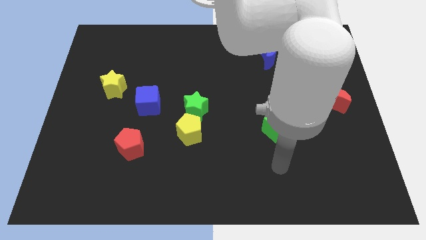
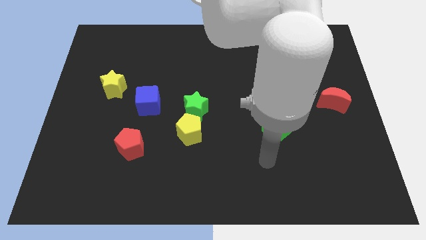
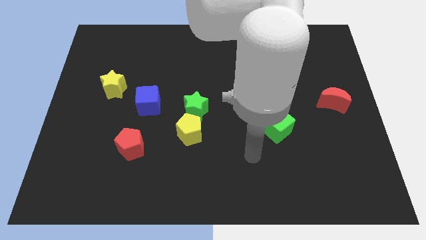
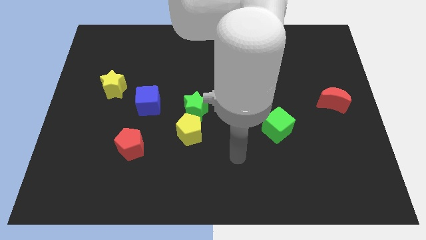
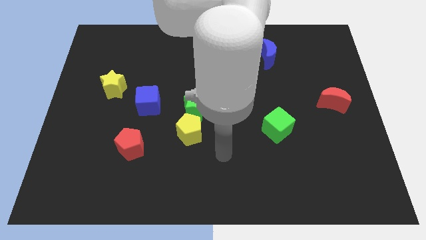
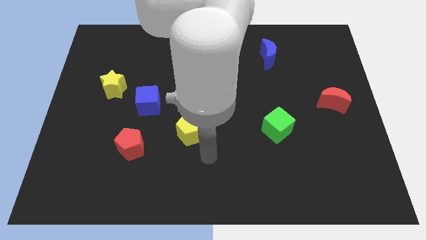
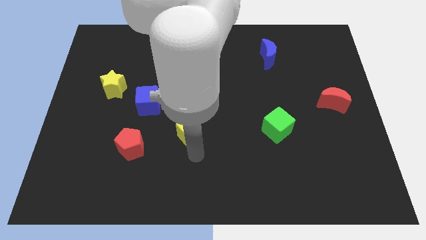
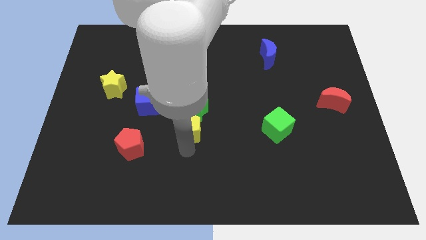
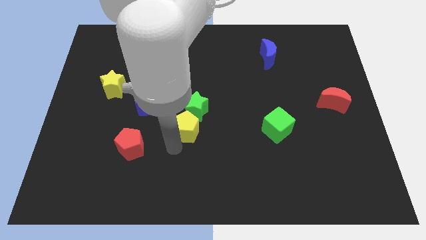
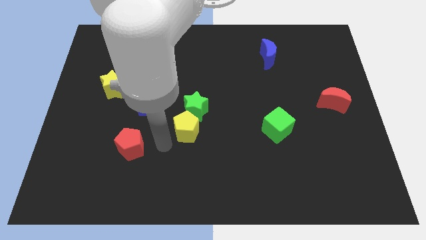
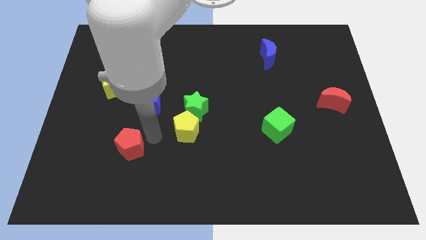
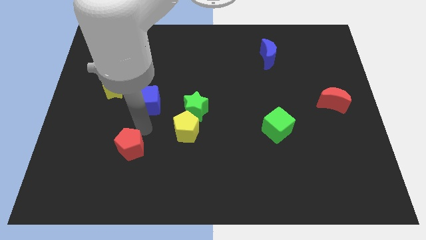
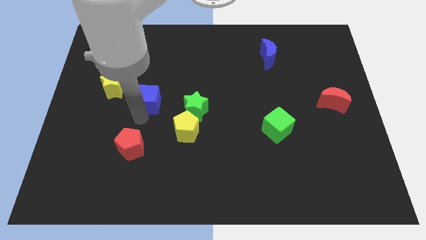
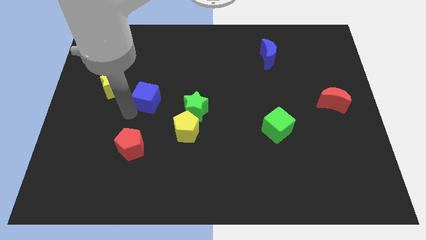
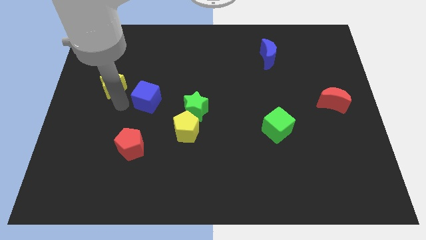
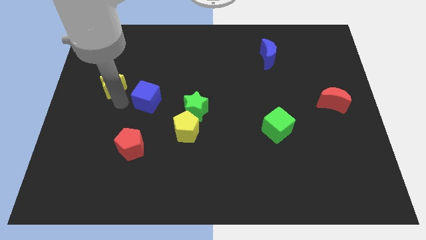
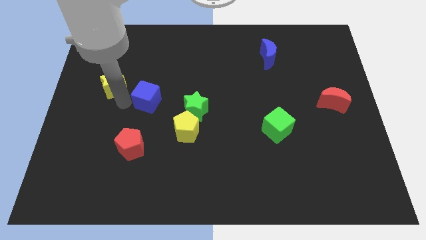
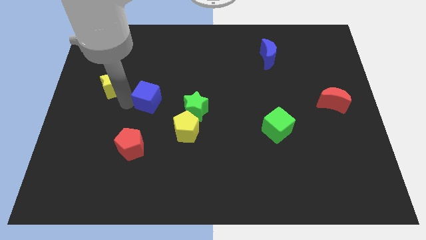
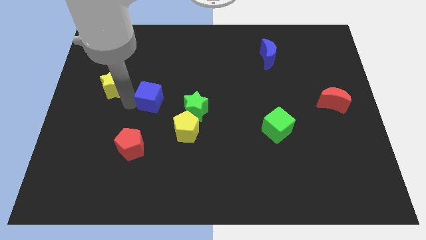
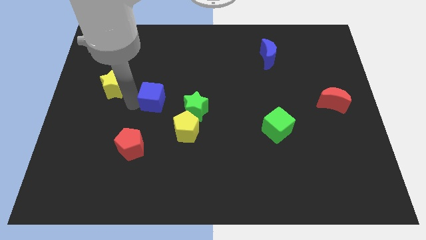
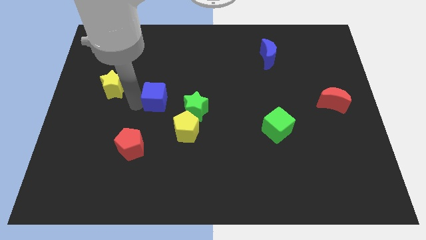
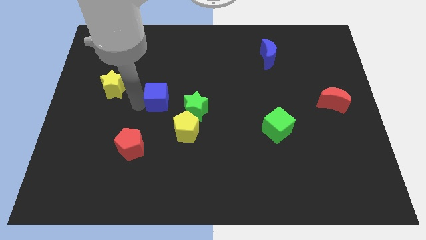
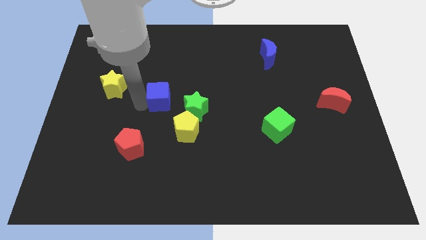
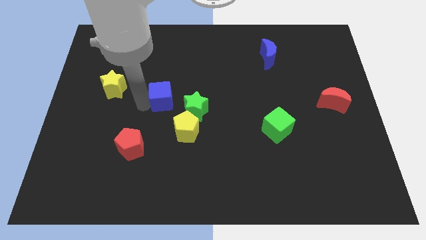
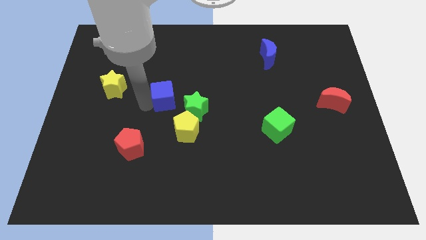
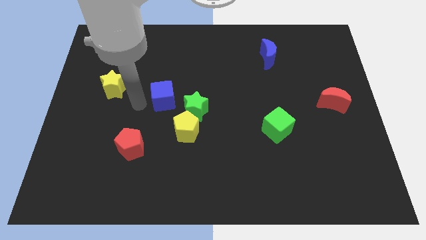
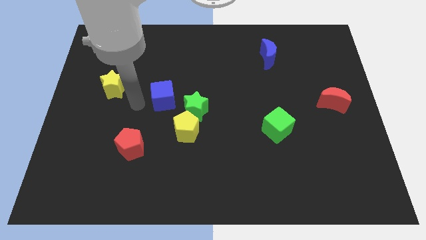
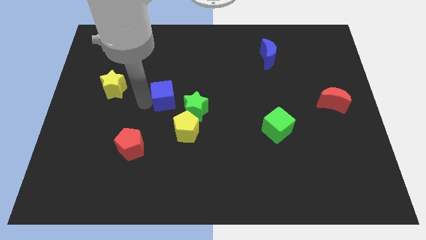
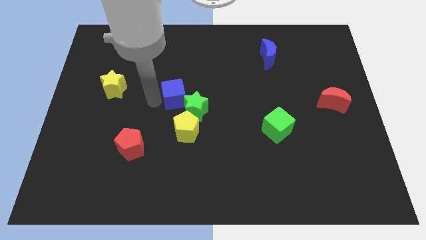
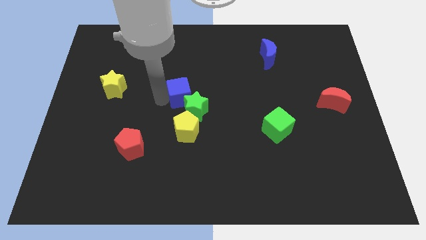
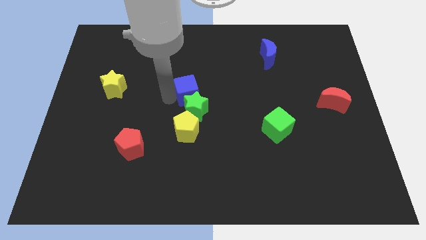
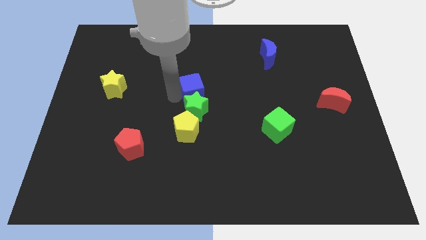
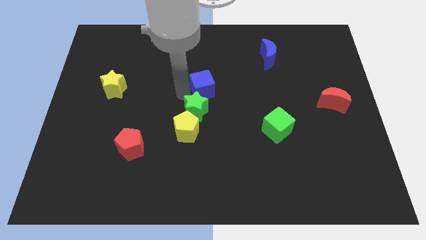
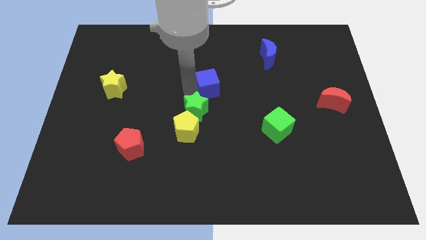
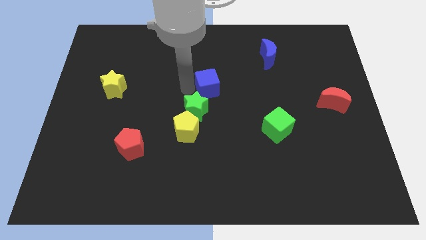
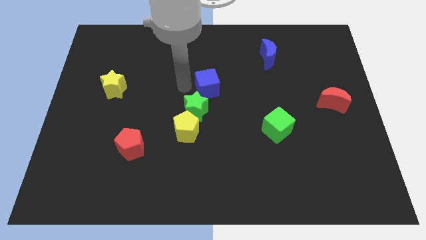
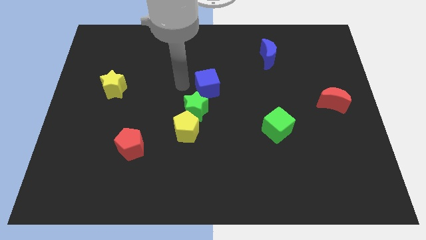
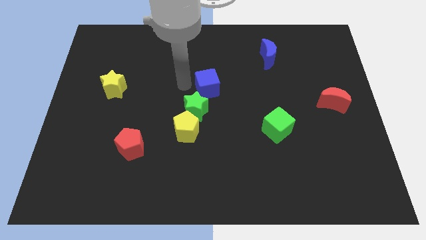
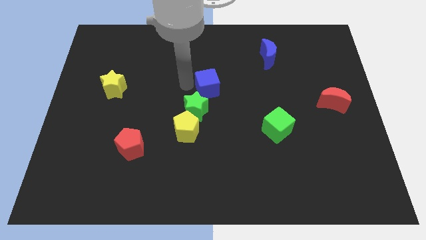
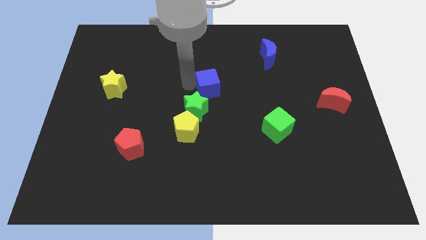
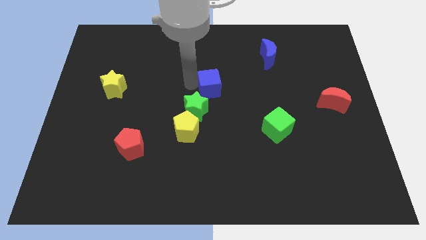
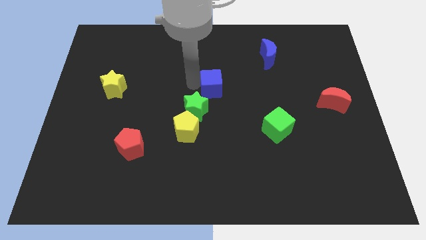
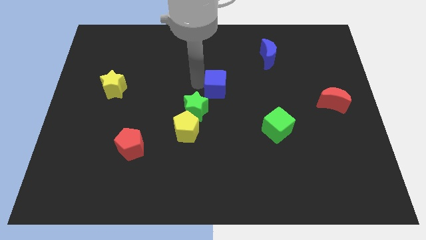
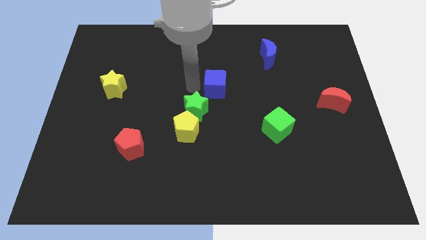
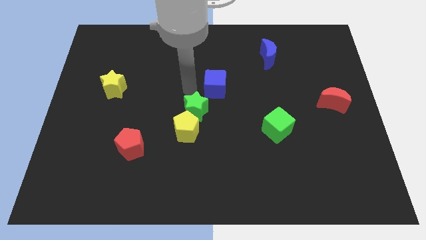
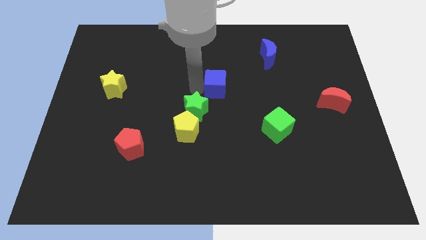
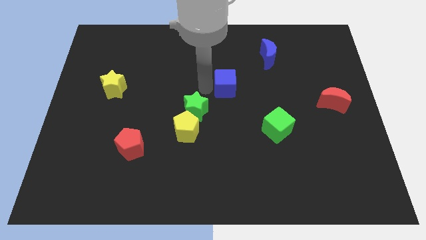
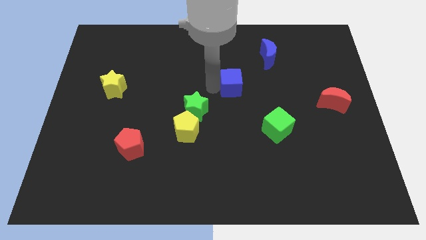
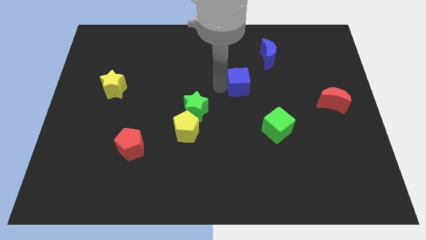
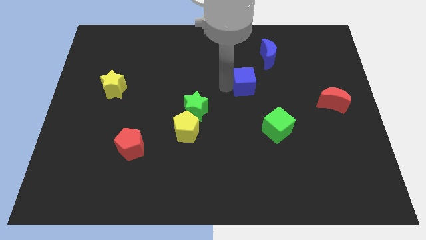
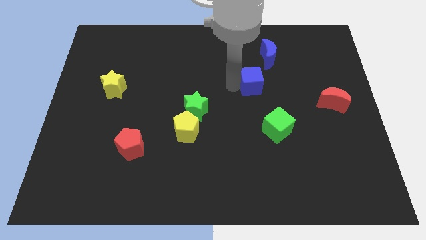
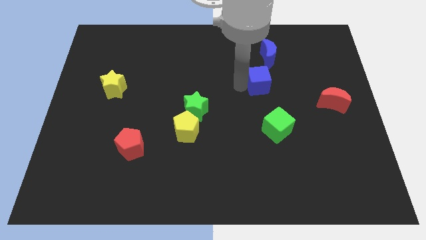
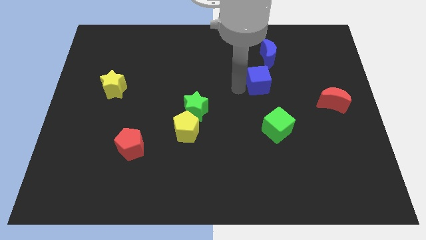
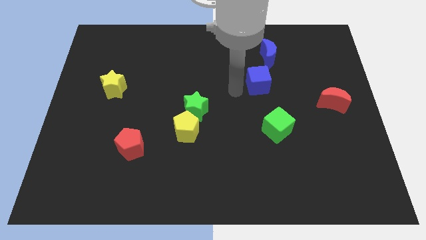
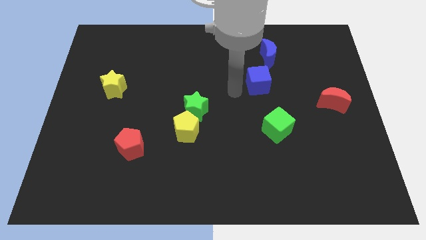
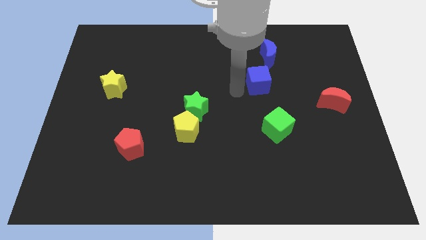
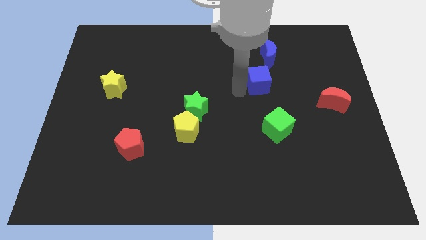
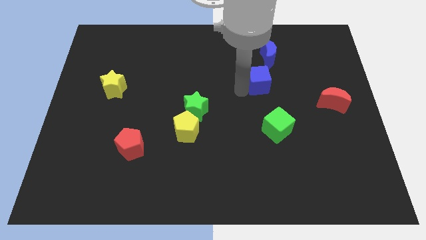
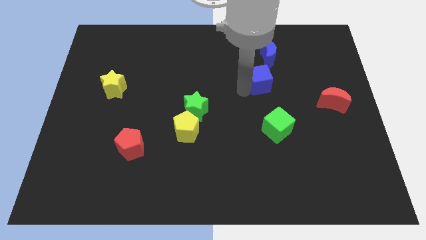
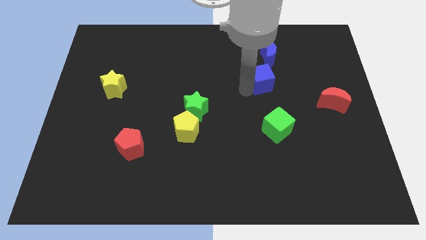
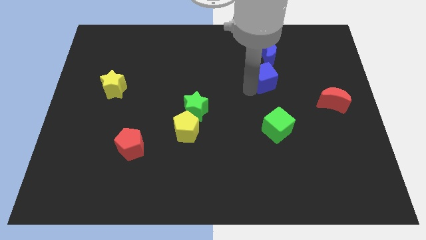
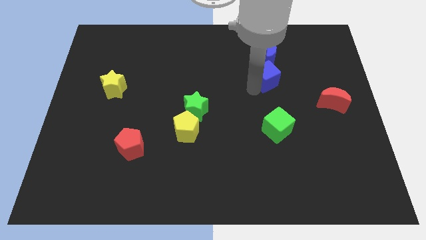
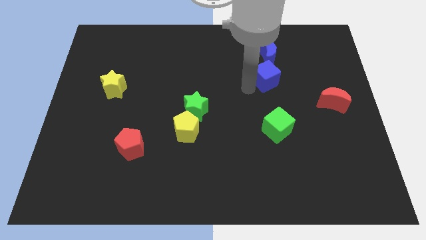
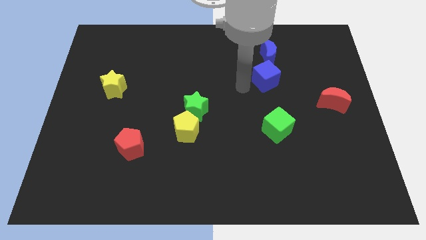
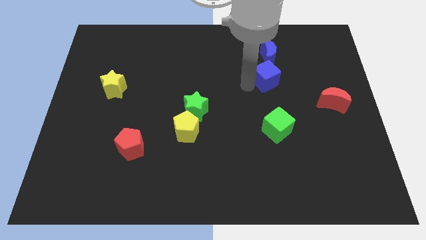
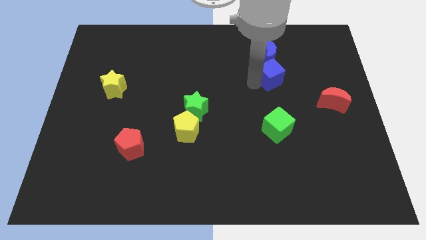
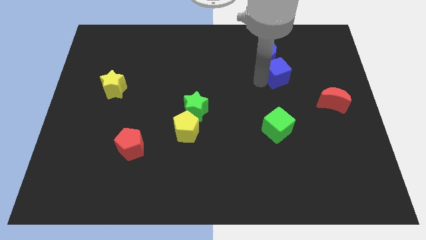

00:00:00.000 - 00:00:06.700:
put the blue cube diagonally down and to the right of the blue moon
